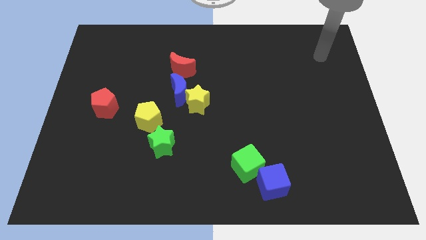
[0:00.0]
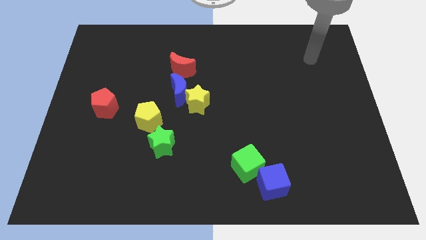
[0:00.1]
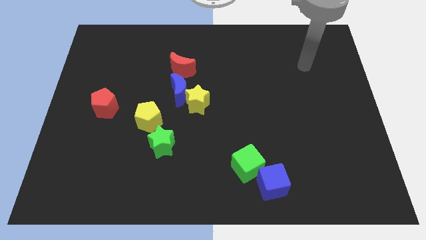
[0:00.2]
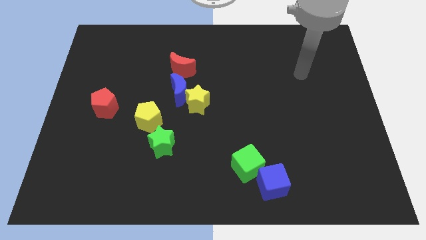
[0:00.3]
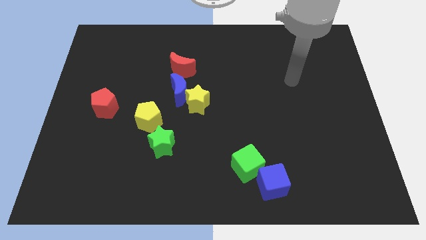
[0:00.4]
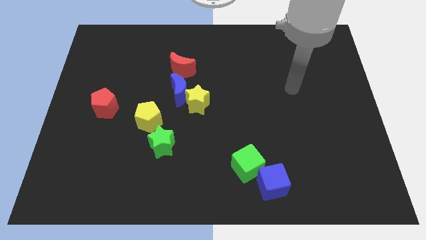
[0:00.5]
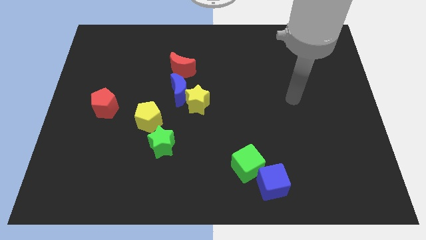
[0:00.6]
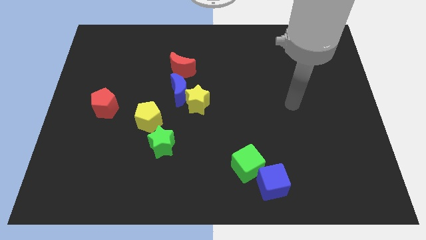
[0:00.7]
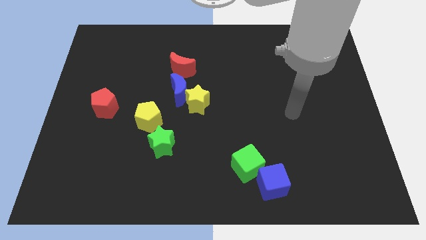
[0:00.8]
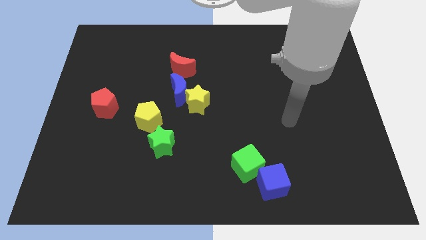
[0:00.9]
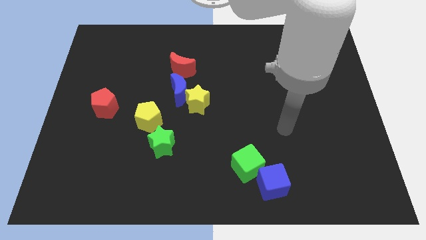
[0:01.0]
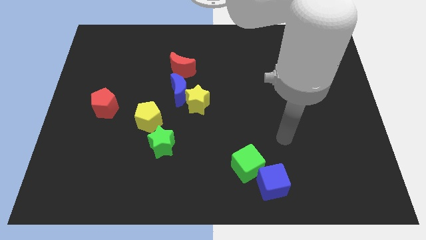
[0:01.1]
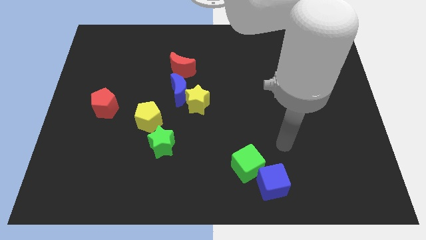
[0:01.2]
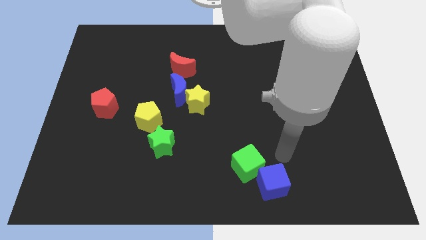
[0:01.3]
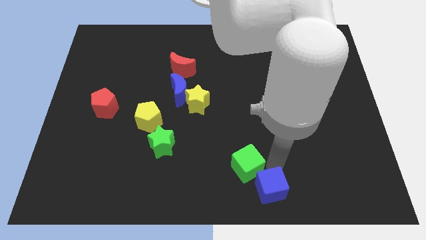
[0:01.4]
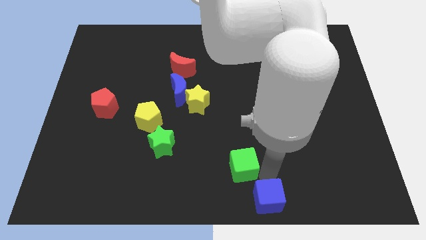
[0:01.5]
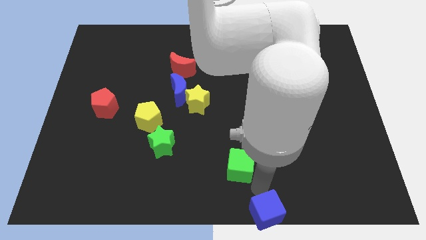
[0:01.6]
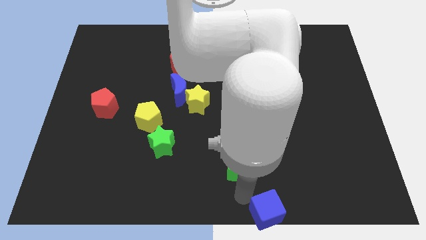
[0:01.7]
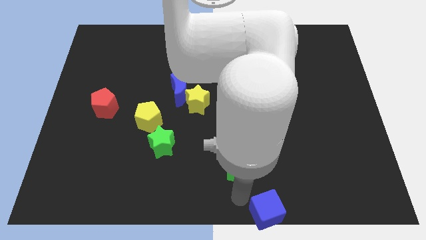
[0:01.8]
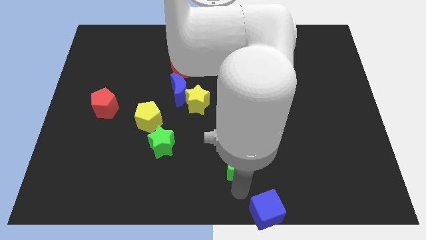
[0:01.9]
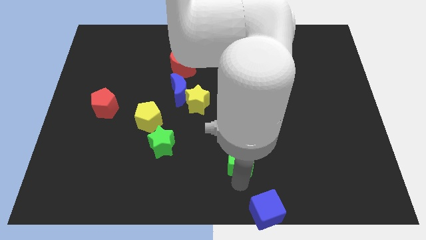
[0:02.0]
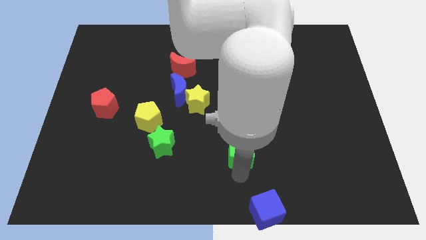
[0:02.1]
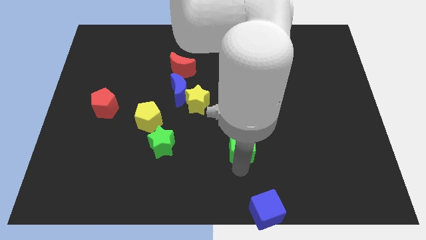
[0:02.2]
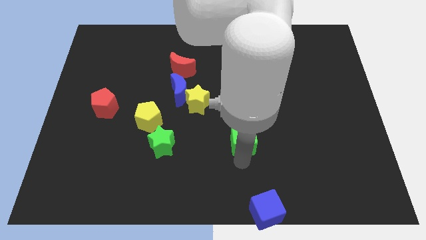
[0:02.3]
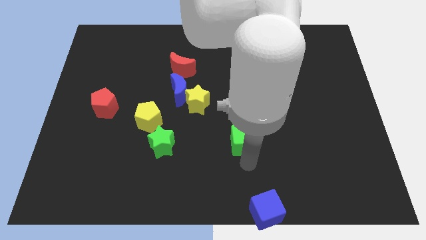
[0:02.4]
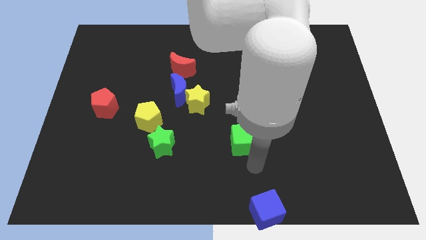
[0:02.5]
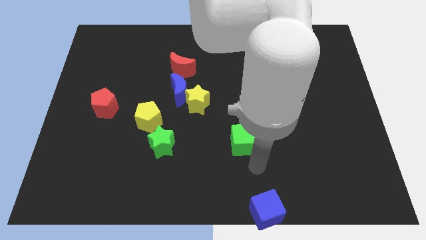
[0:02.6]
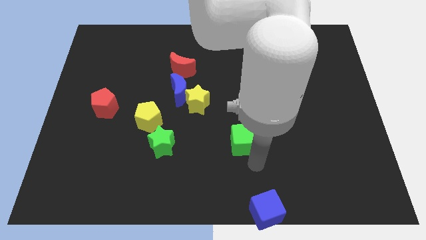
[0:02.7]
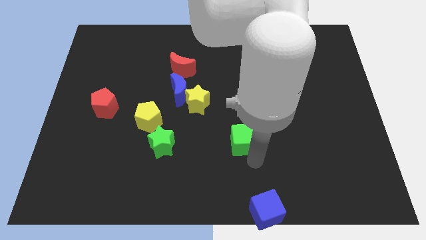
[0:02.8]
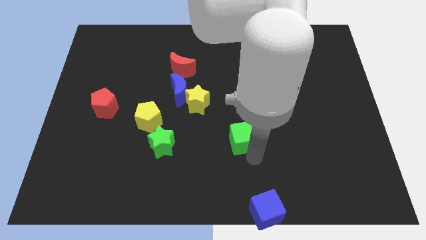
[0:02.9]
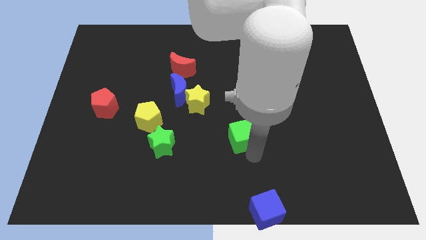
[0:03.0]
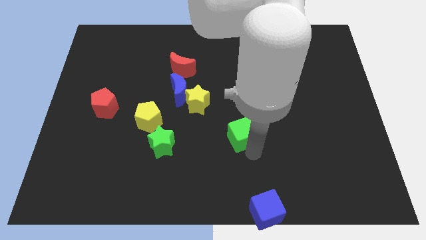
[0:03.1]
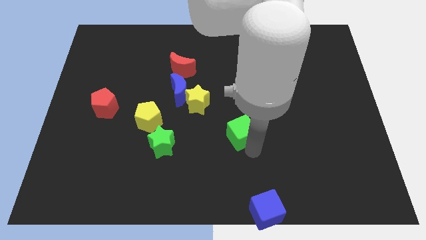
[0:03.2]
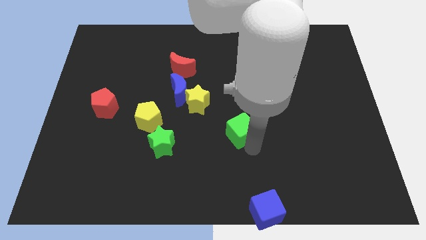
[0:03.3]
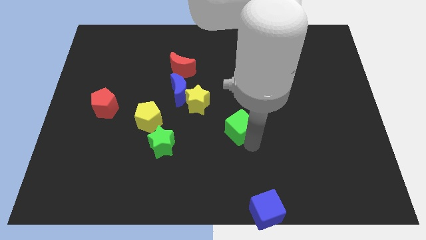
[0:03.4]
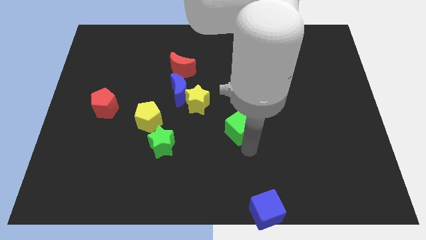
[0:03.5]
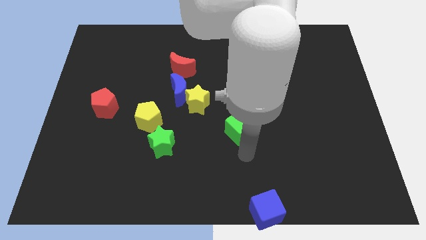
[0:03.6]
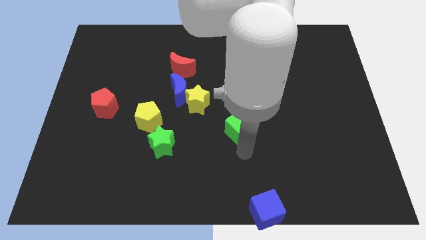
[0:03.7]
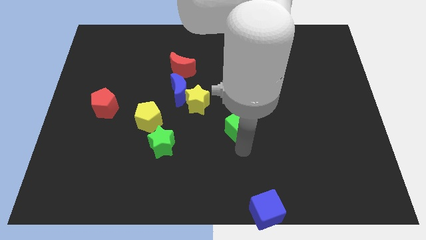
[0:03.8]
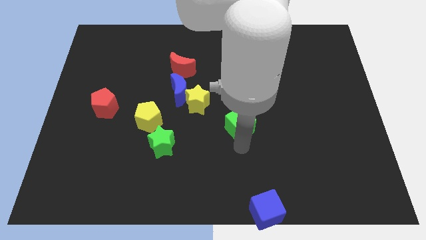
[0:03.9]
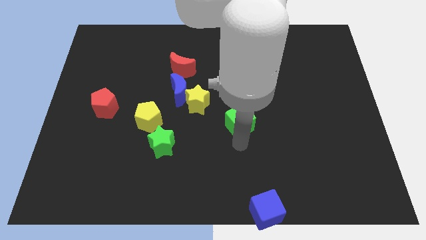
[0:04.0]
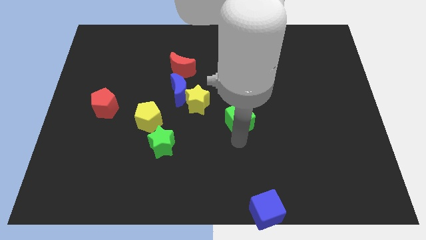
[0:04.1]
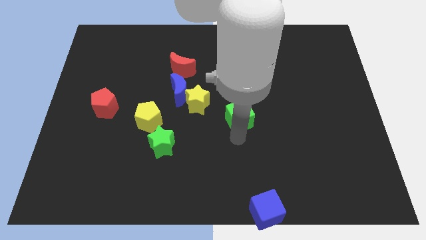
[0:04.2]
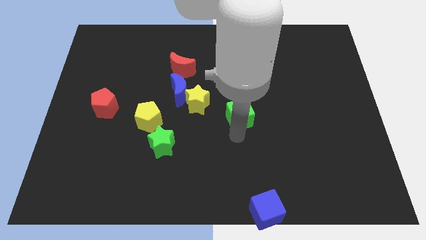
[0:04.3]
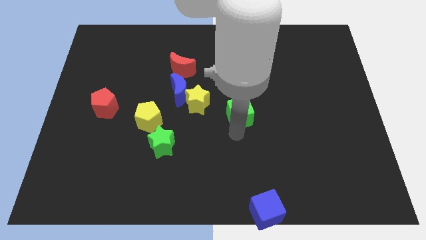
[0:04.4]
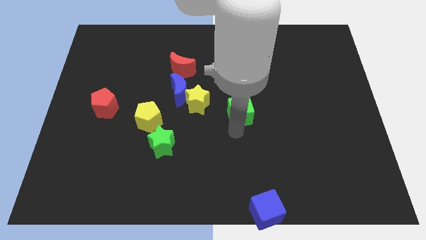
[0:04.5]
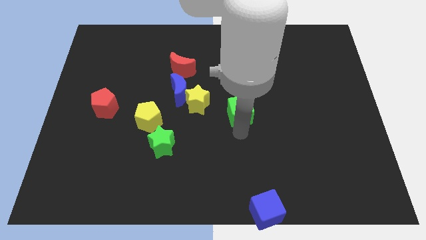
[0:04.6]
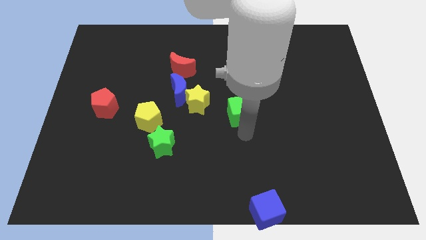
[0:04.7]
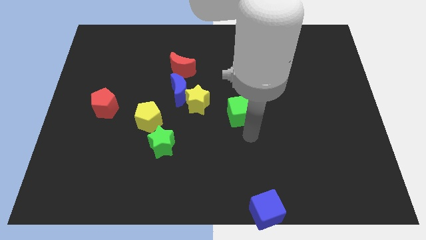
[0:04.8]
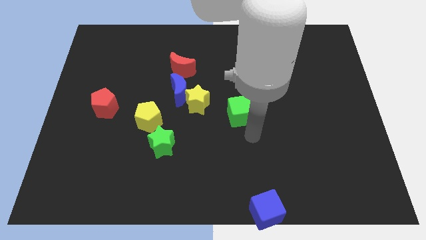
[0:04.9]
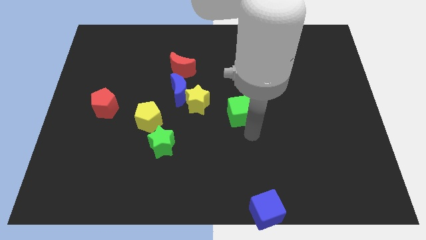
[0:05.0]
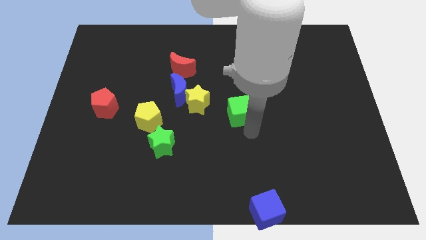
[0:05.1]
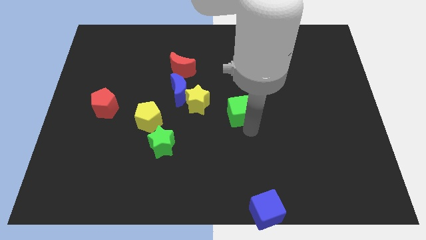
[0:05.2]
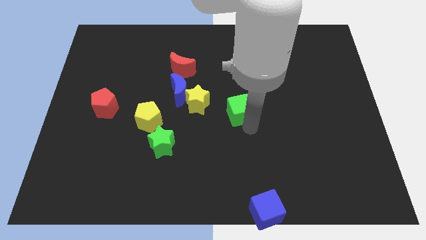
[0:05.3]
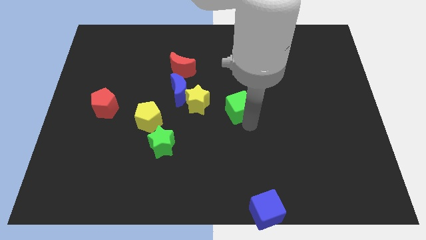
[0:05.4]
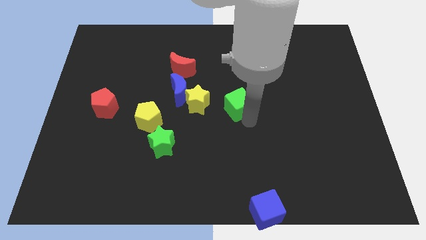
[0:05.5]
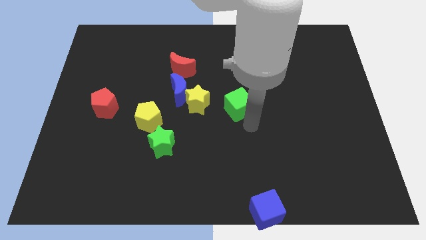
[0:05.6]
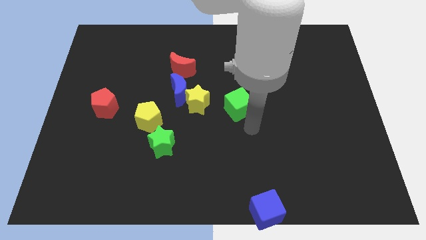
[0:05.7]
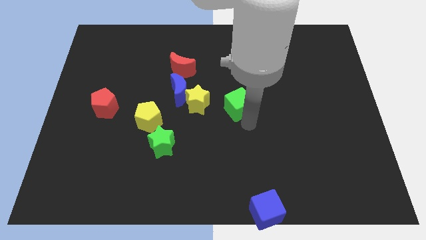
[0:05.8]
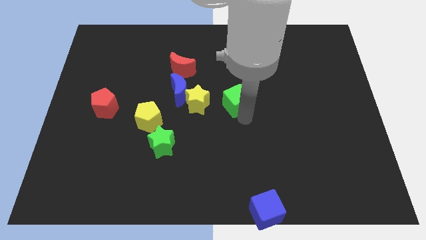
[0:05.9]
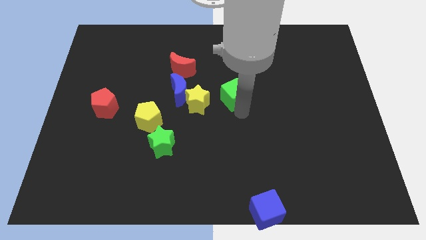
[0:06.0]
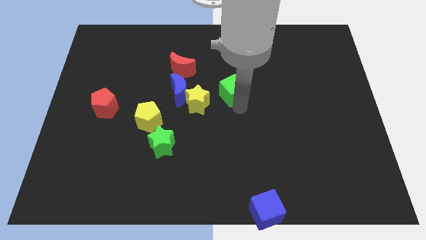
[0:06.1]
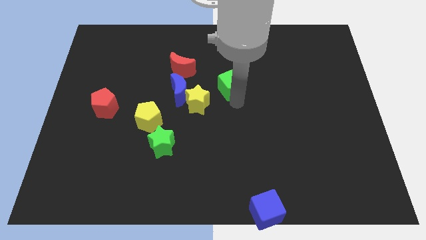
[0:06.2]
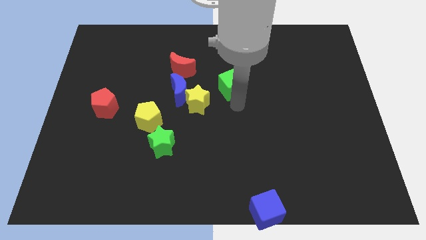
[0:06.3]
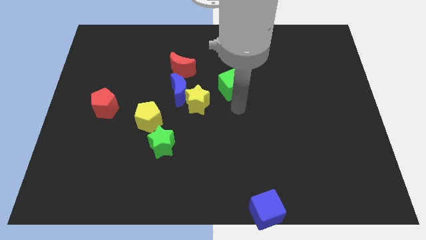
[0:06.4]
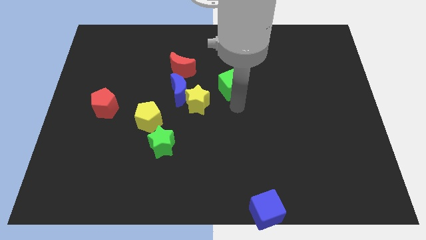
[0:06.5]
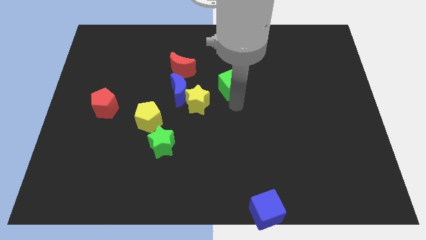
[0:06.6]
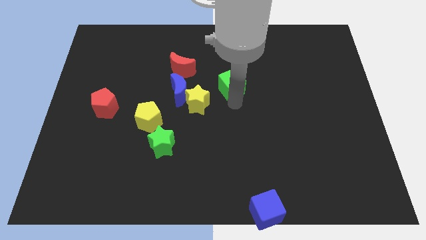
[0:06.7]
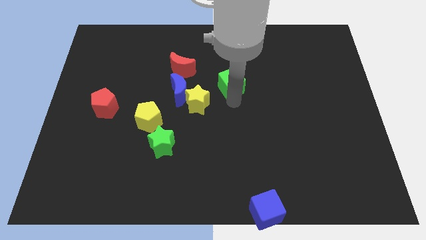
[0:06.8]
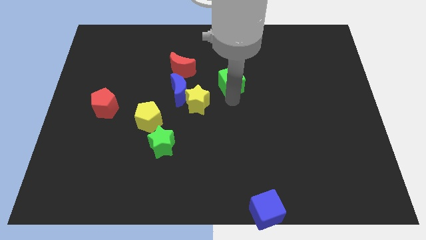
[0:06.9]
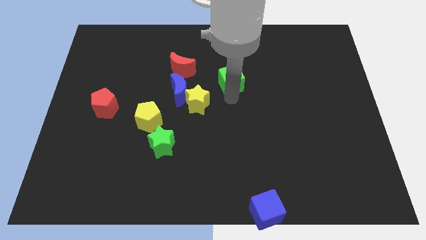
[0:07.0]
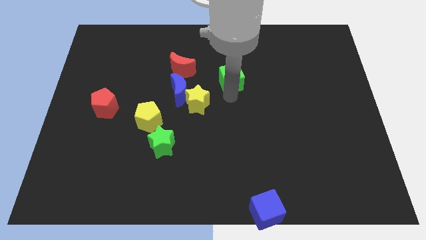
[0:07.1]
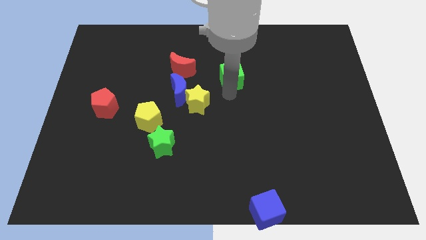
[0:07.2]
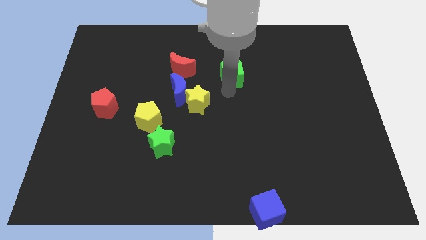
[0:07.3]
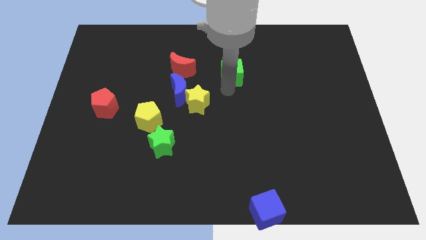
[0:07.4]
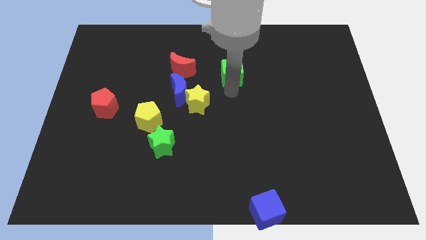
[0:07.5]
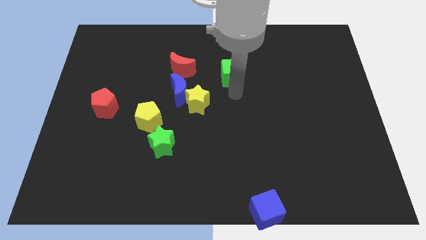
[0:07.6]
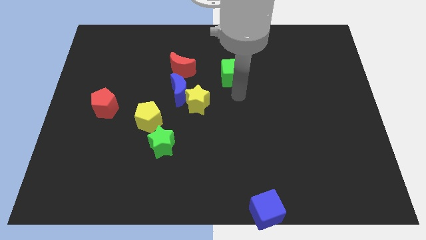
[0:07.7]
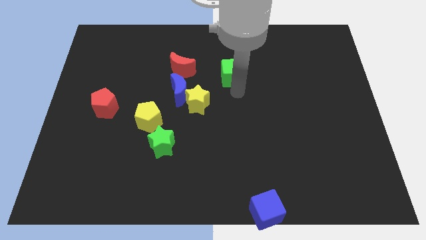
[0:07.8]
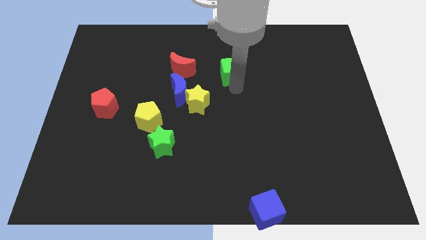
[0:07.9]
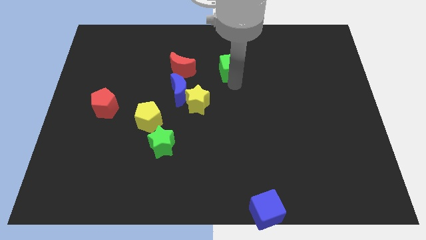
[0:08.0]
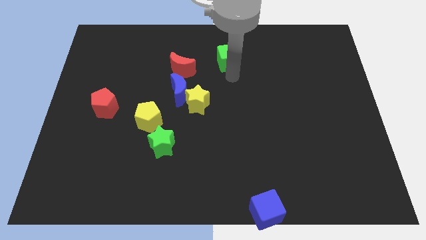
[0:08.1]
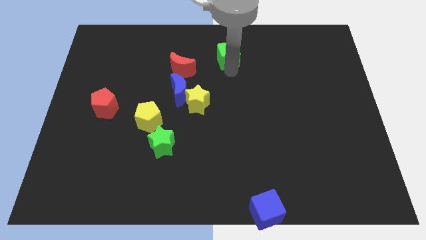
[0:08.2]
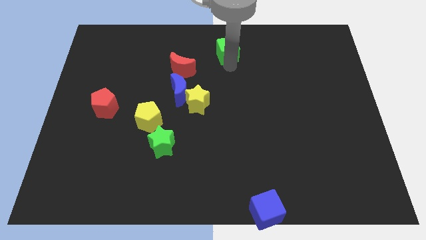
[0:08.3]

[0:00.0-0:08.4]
slide the green cube to the top
